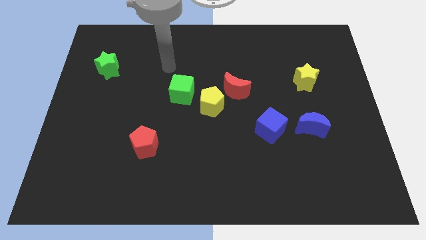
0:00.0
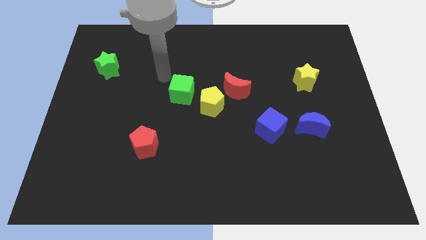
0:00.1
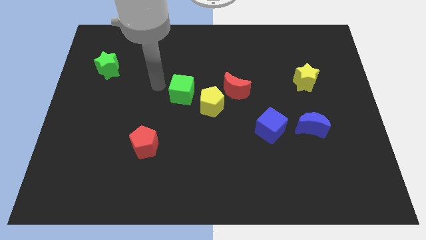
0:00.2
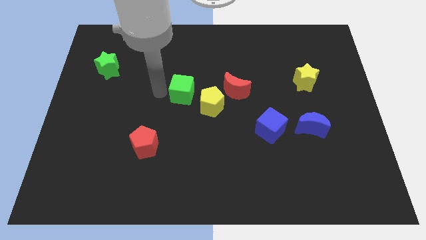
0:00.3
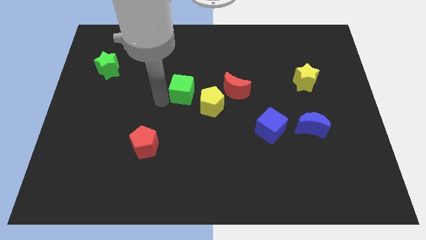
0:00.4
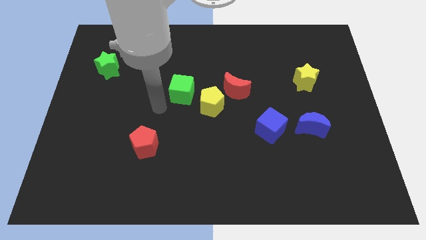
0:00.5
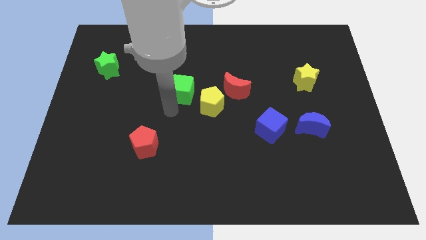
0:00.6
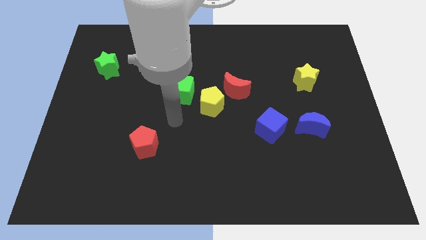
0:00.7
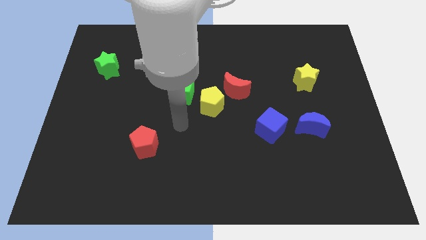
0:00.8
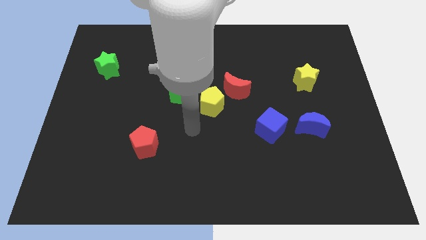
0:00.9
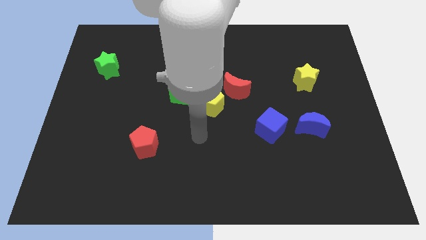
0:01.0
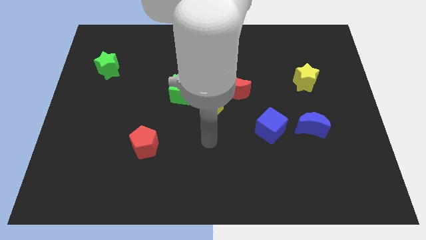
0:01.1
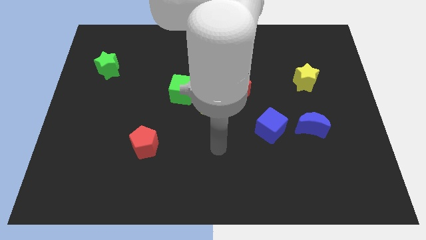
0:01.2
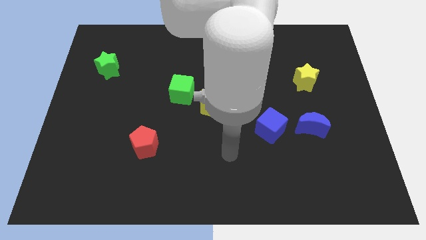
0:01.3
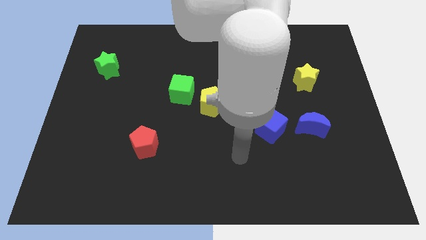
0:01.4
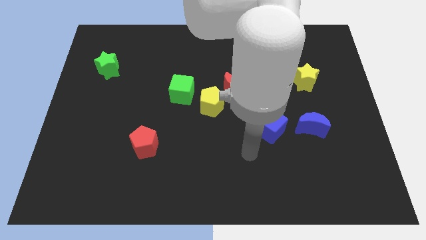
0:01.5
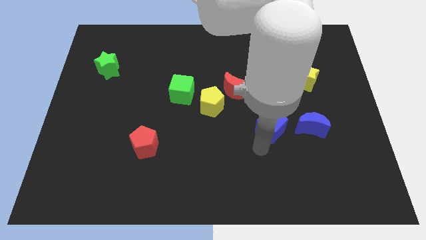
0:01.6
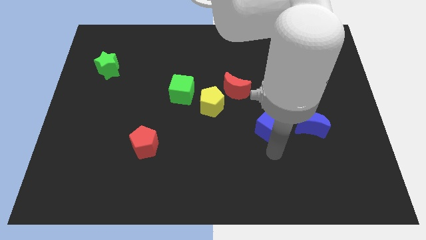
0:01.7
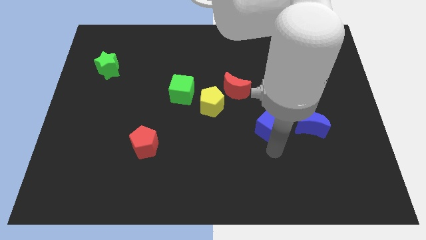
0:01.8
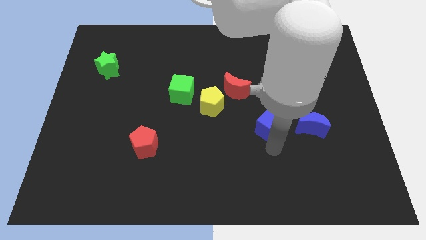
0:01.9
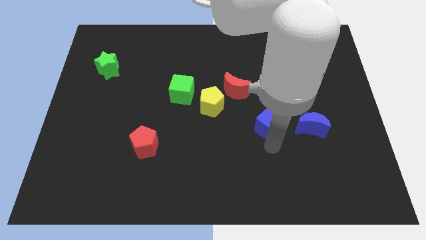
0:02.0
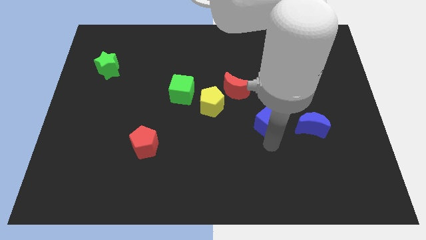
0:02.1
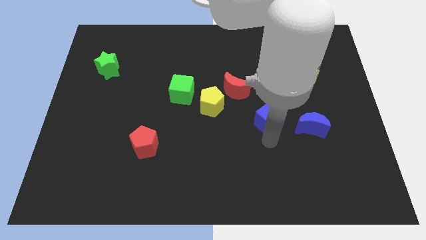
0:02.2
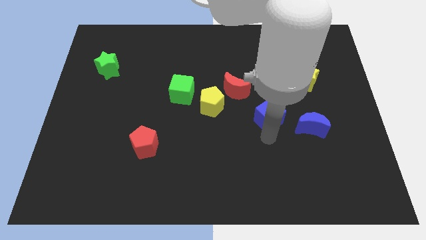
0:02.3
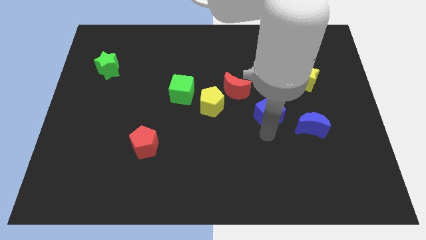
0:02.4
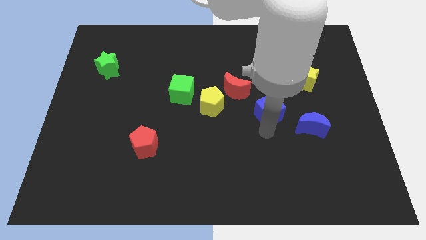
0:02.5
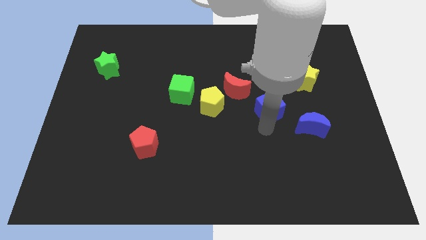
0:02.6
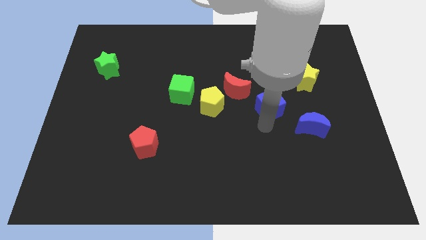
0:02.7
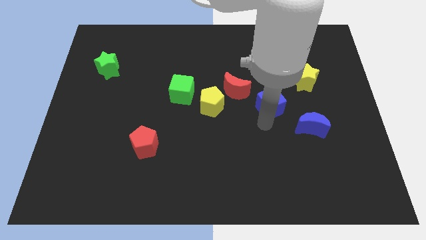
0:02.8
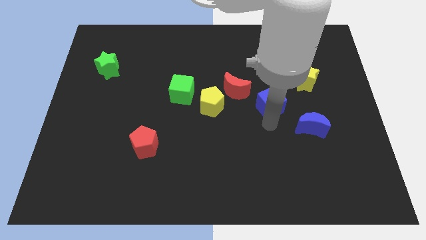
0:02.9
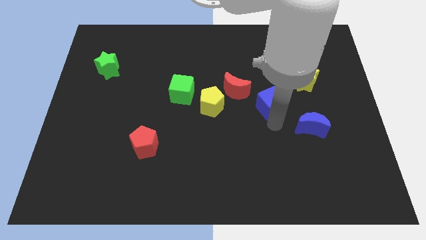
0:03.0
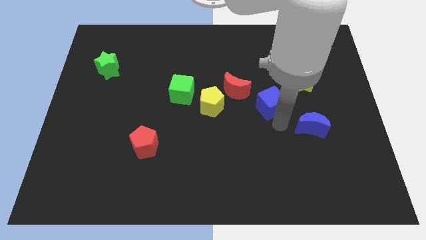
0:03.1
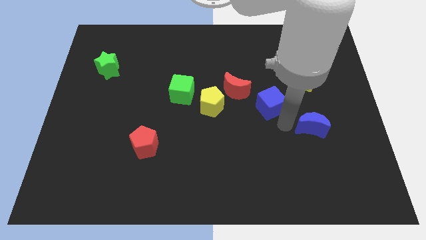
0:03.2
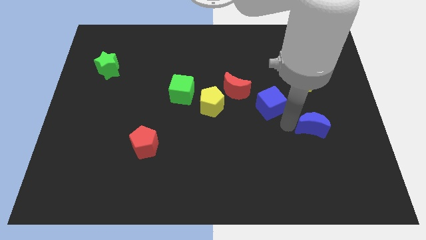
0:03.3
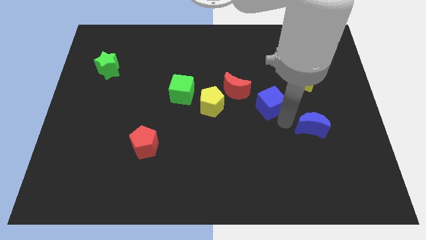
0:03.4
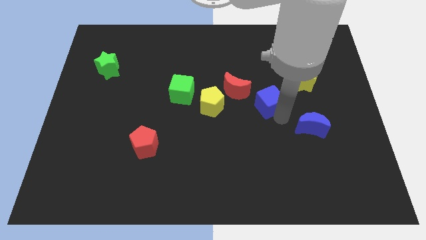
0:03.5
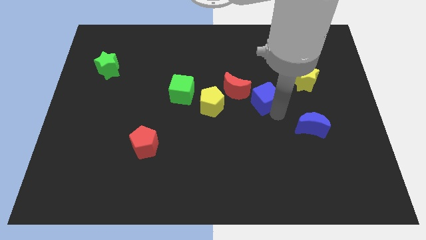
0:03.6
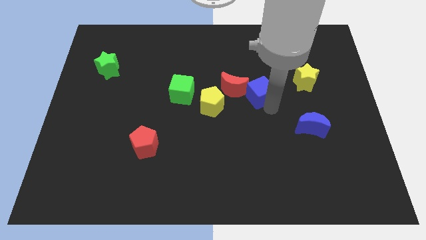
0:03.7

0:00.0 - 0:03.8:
slightly move the blue cube up and then to the left

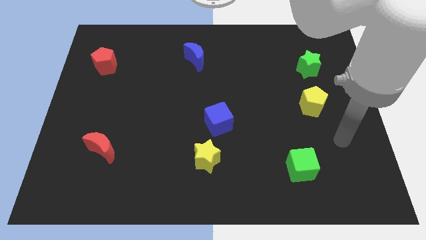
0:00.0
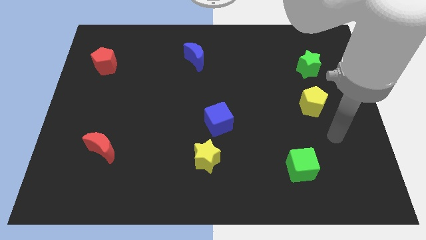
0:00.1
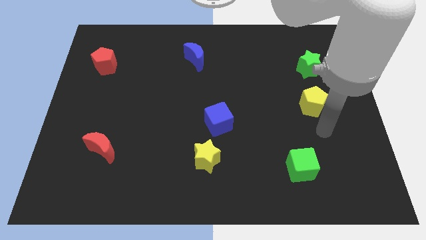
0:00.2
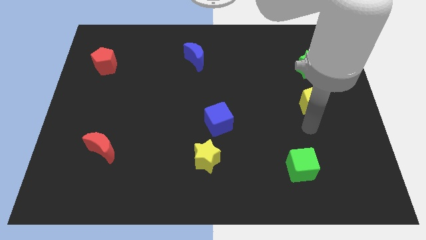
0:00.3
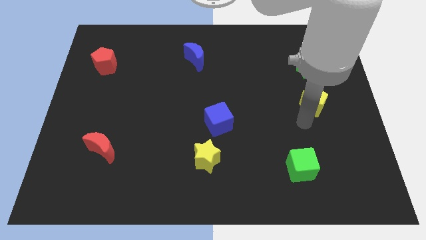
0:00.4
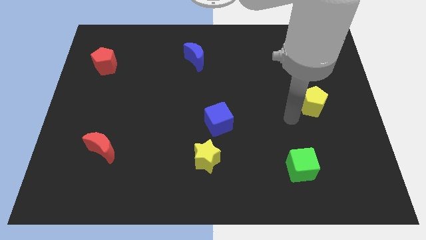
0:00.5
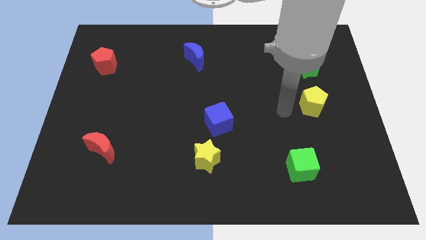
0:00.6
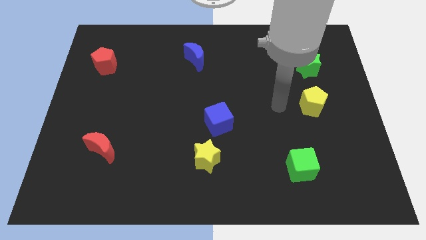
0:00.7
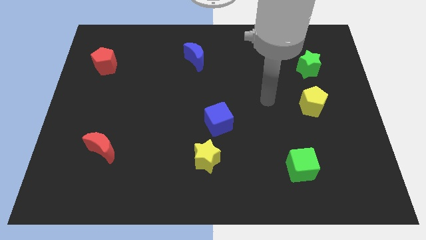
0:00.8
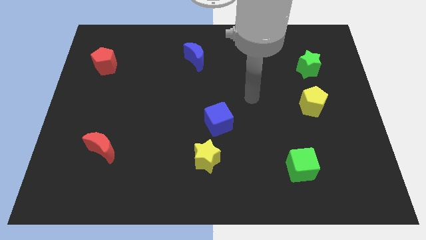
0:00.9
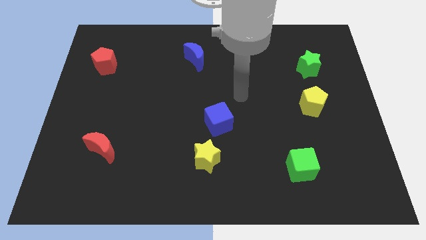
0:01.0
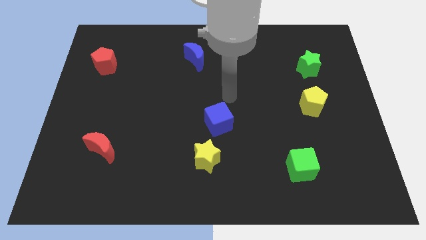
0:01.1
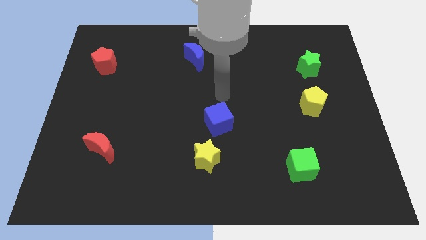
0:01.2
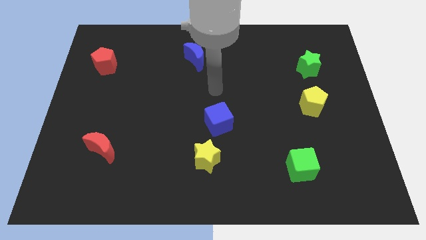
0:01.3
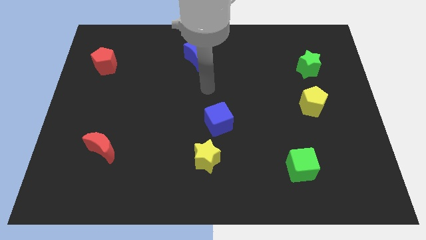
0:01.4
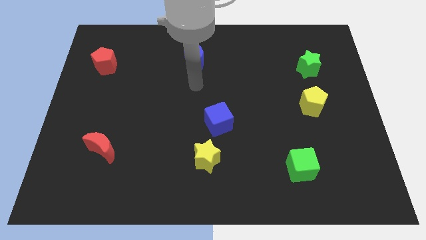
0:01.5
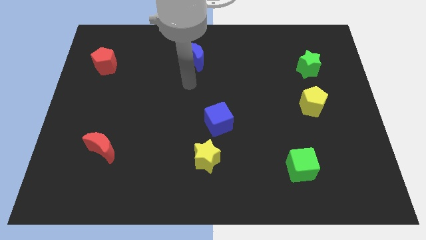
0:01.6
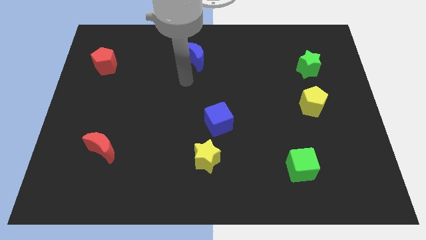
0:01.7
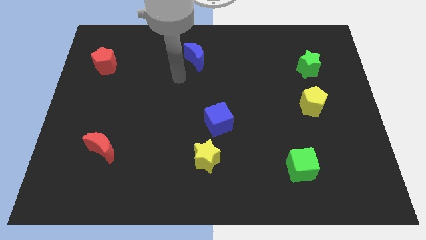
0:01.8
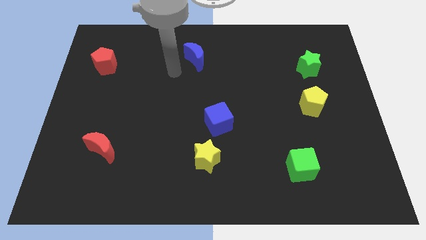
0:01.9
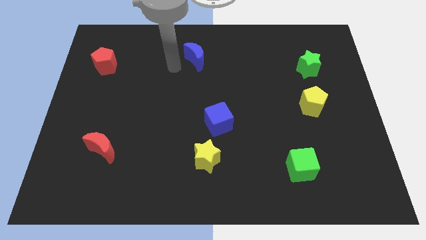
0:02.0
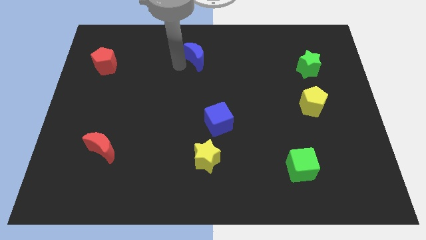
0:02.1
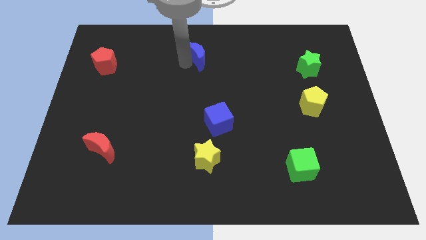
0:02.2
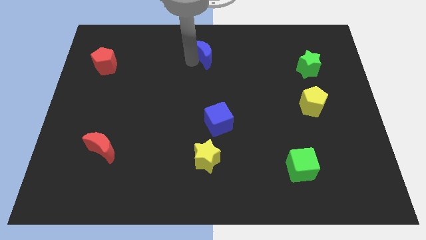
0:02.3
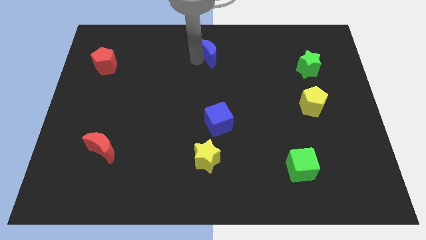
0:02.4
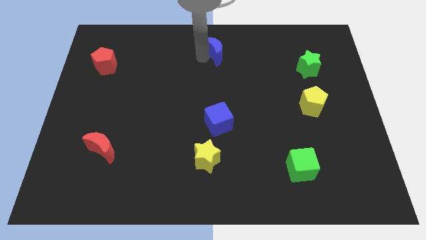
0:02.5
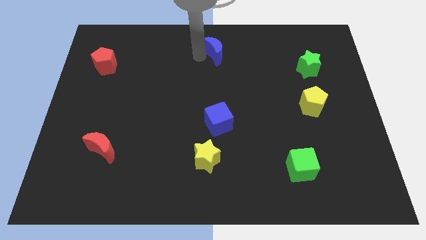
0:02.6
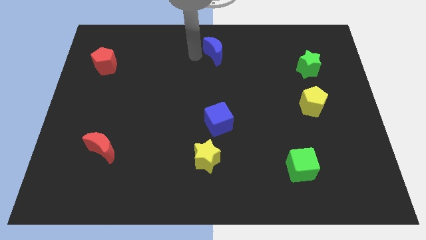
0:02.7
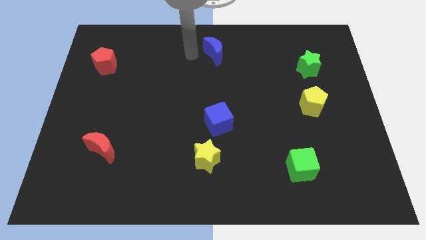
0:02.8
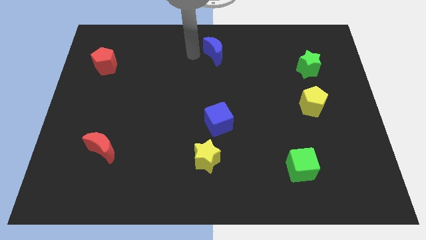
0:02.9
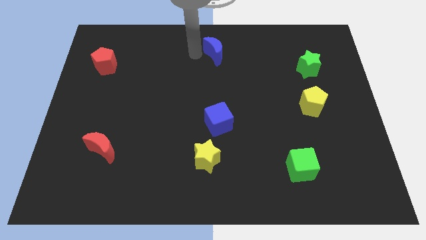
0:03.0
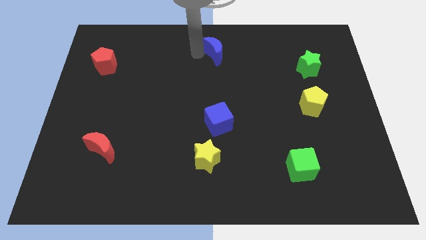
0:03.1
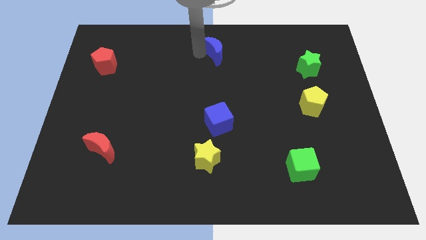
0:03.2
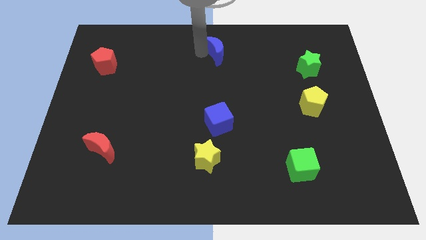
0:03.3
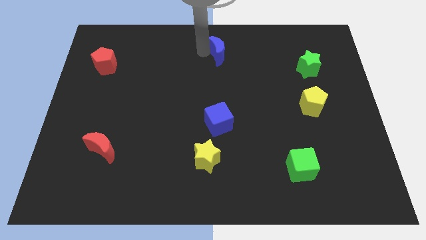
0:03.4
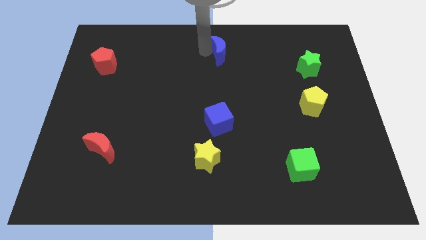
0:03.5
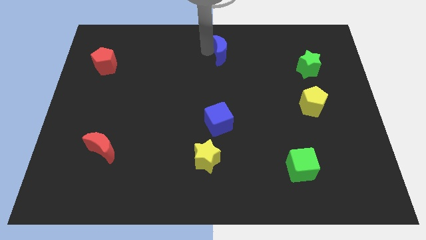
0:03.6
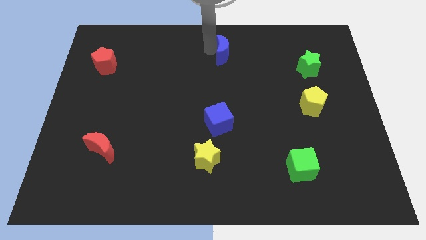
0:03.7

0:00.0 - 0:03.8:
slightly push the blue moon to the right

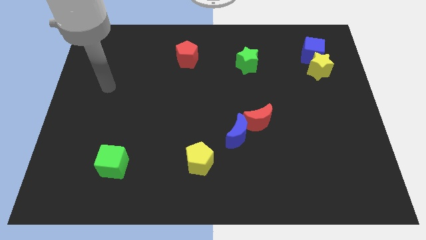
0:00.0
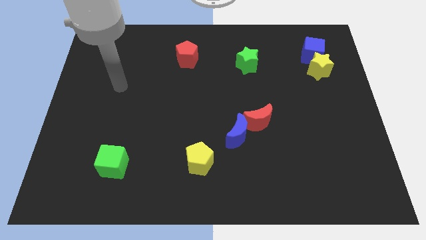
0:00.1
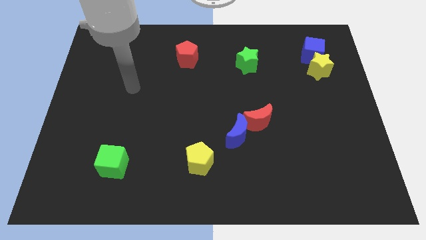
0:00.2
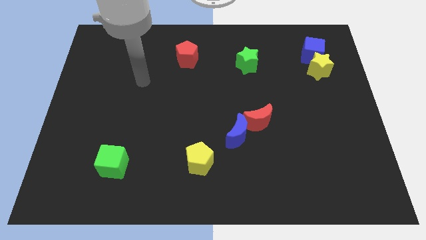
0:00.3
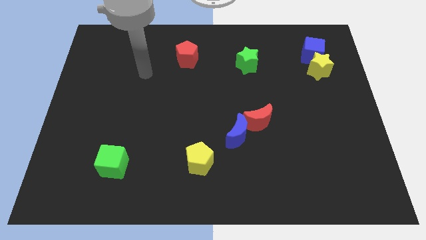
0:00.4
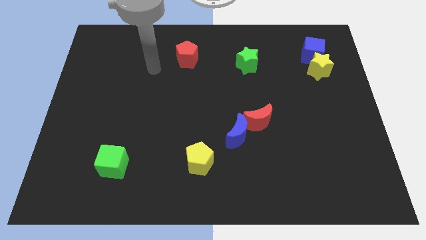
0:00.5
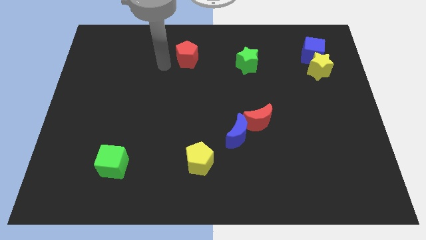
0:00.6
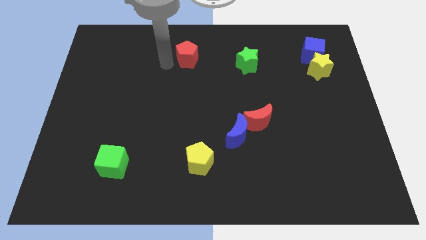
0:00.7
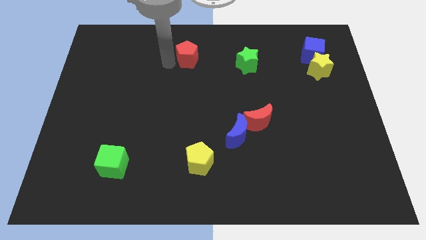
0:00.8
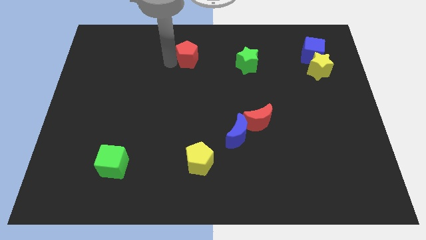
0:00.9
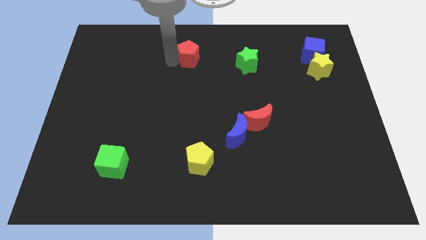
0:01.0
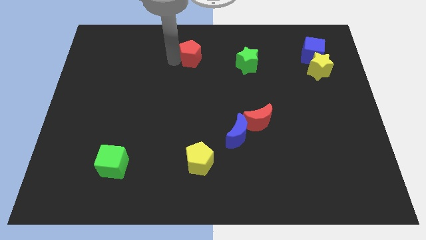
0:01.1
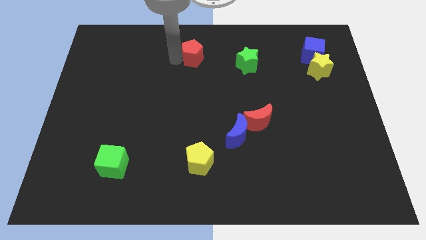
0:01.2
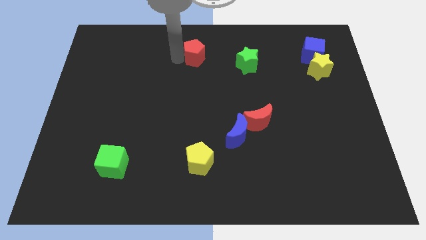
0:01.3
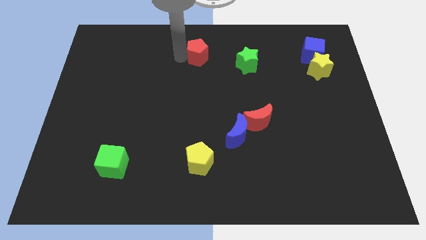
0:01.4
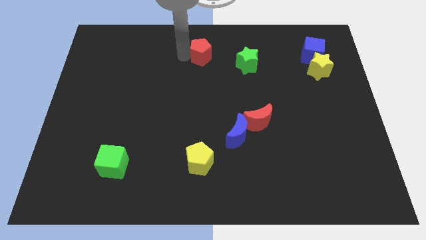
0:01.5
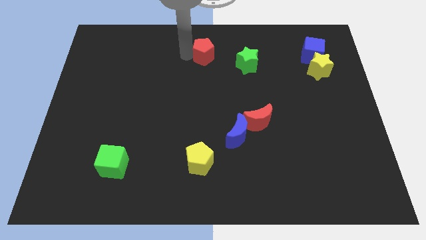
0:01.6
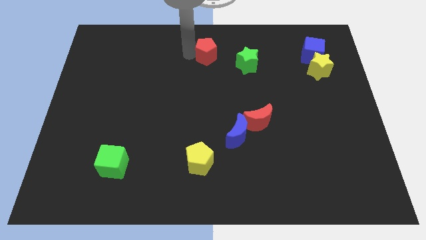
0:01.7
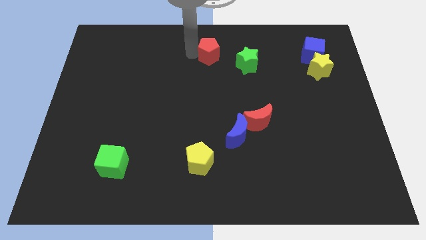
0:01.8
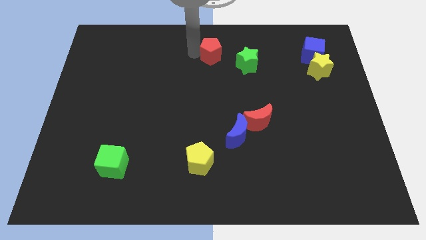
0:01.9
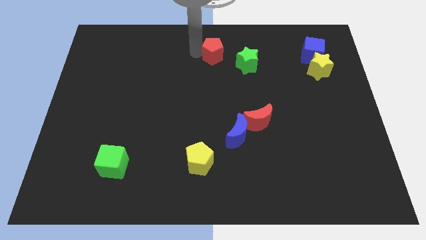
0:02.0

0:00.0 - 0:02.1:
move the red pentagon somewhat right
